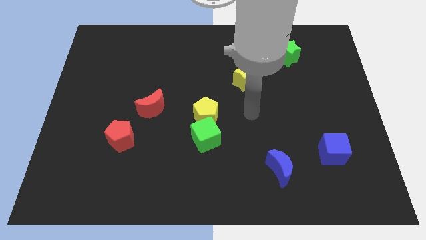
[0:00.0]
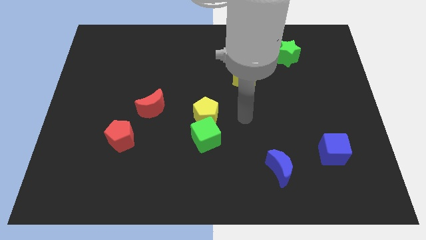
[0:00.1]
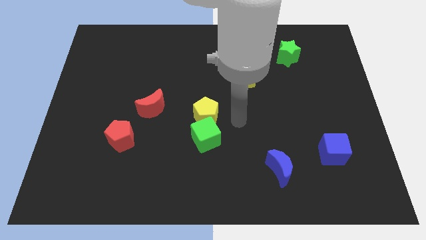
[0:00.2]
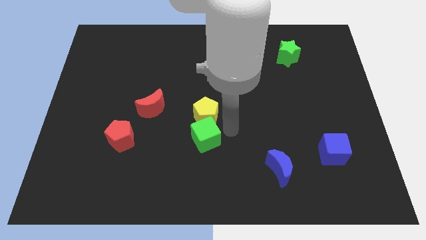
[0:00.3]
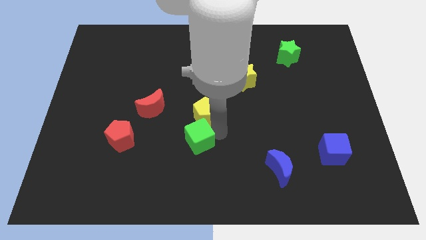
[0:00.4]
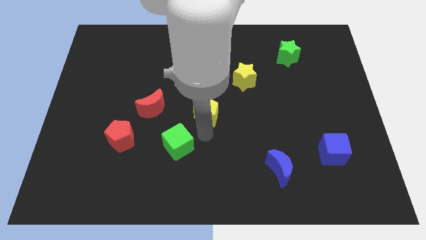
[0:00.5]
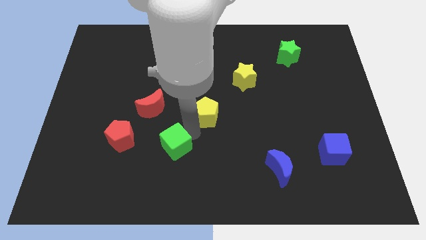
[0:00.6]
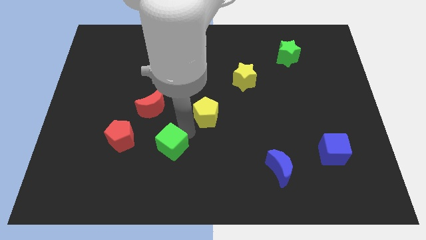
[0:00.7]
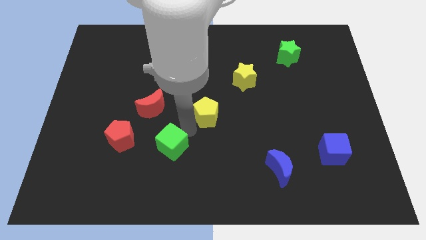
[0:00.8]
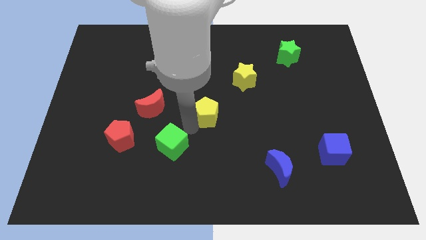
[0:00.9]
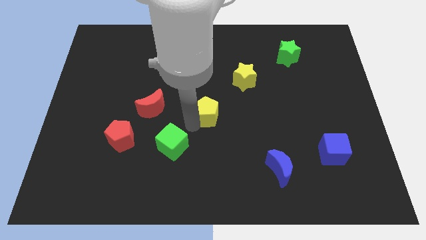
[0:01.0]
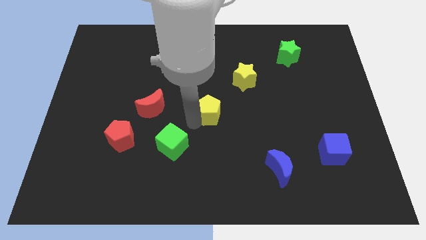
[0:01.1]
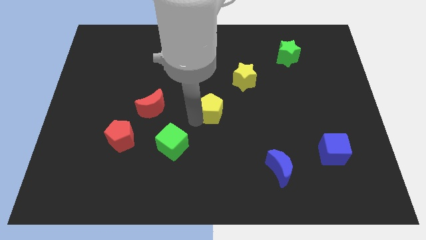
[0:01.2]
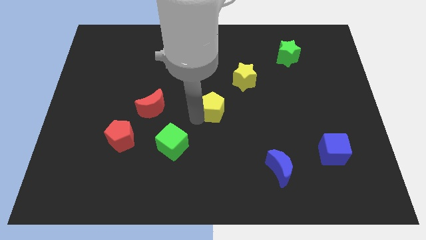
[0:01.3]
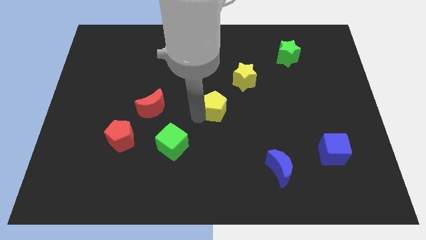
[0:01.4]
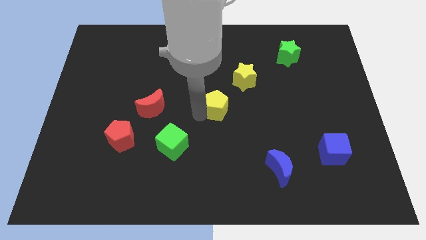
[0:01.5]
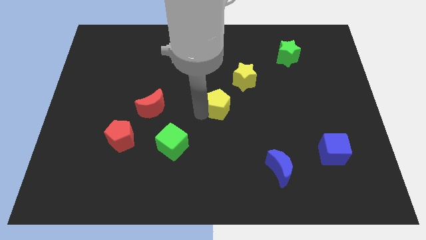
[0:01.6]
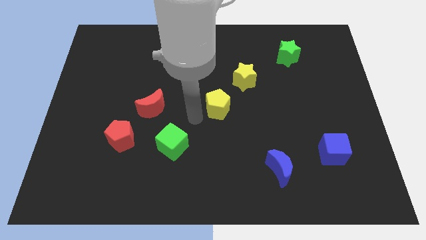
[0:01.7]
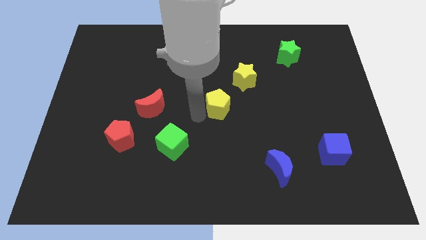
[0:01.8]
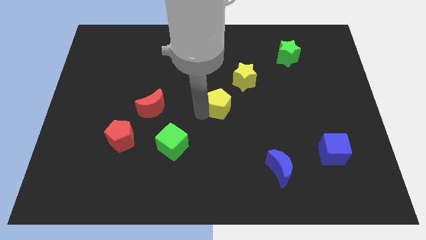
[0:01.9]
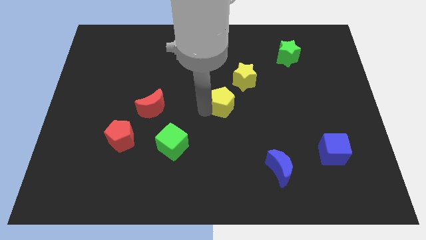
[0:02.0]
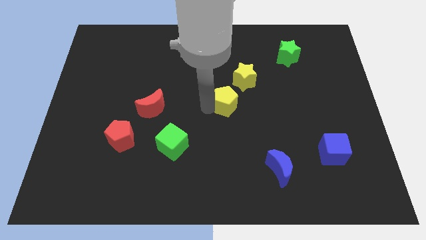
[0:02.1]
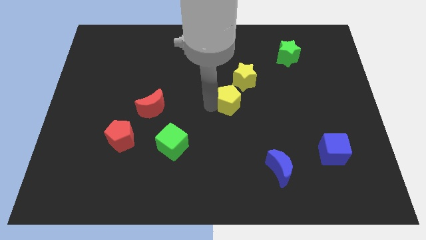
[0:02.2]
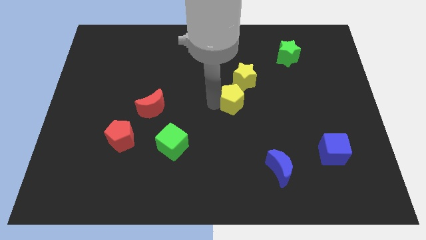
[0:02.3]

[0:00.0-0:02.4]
push the yellow pentagon up and to the right diagonally a little

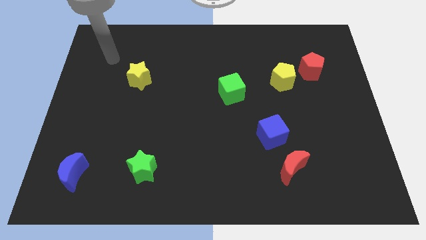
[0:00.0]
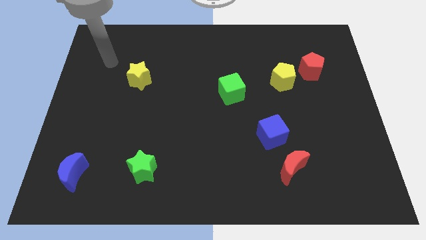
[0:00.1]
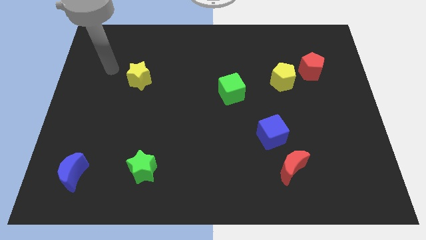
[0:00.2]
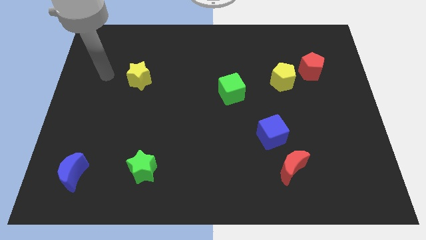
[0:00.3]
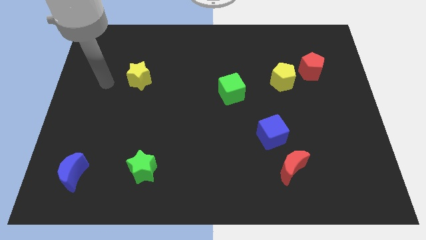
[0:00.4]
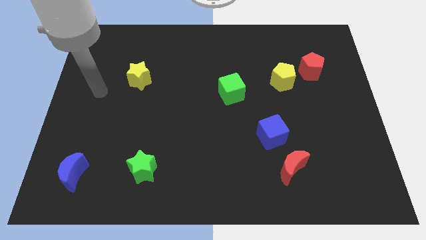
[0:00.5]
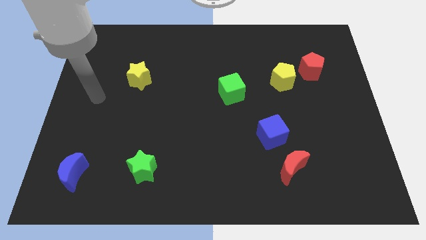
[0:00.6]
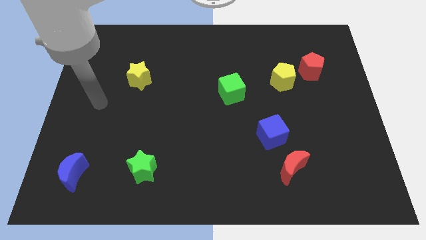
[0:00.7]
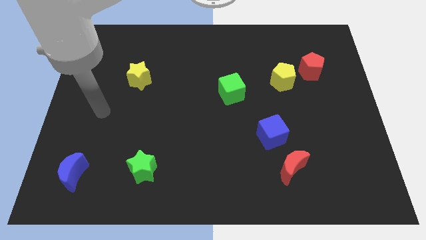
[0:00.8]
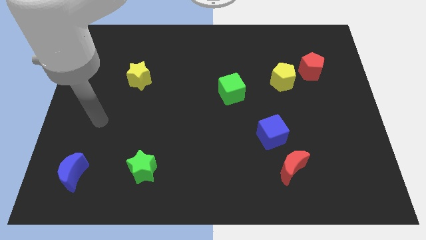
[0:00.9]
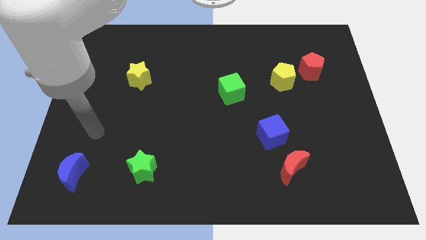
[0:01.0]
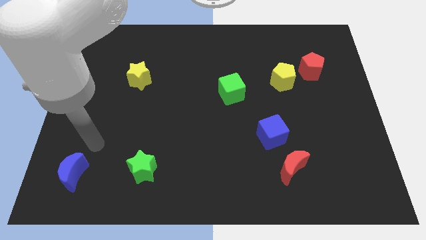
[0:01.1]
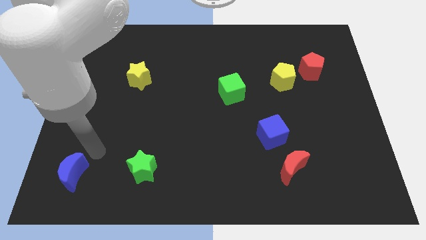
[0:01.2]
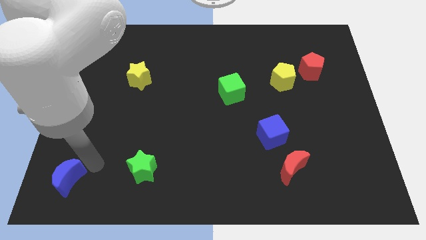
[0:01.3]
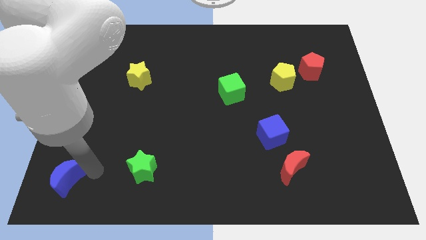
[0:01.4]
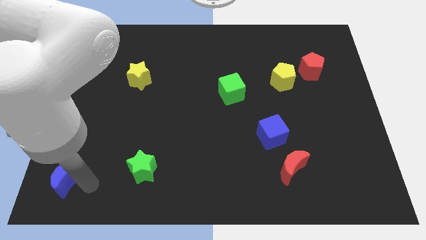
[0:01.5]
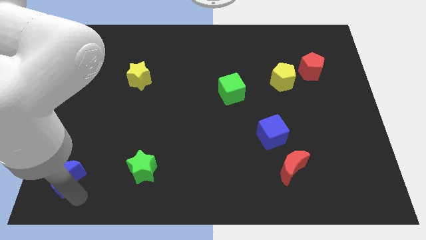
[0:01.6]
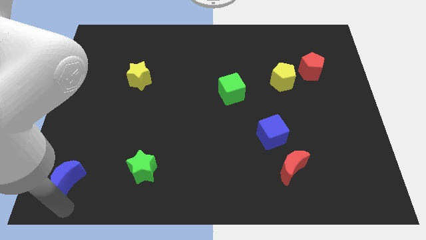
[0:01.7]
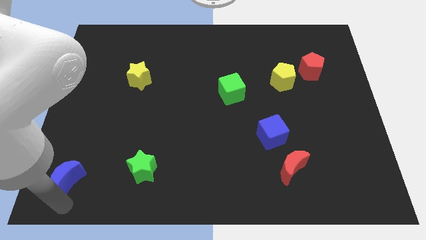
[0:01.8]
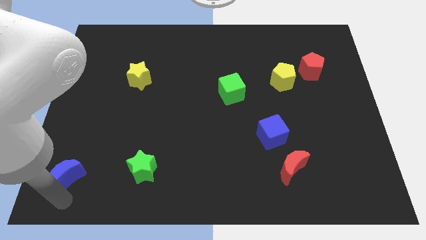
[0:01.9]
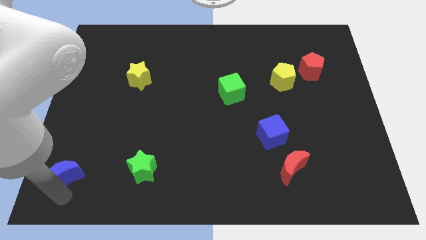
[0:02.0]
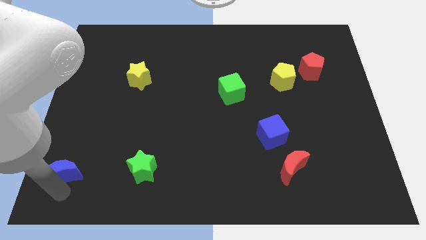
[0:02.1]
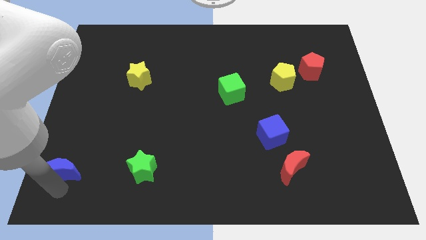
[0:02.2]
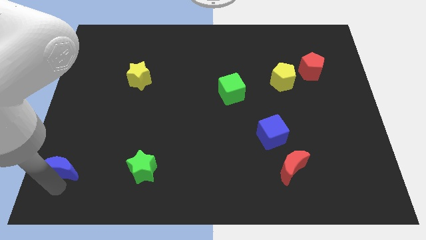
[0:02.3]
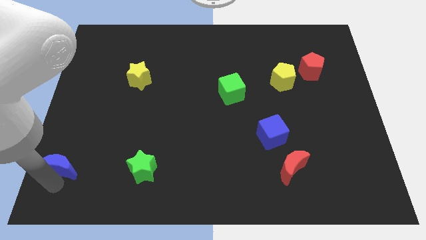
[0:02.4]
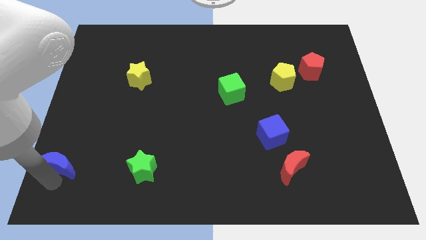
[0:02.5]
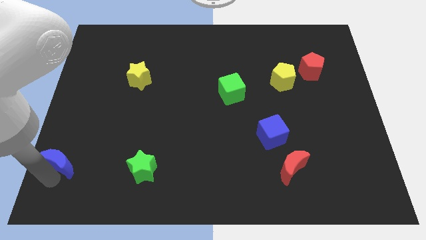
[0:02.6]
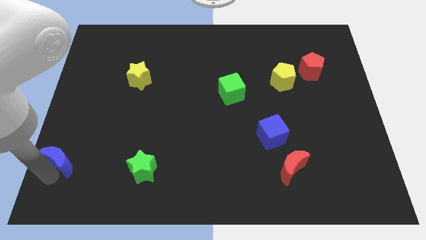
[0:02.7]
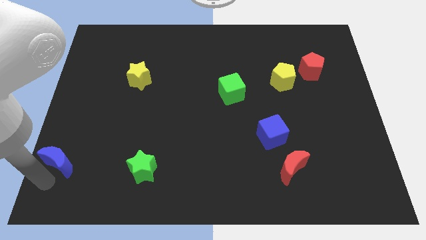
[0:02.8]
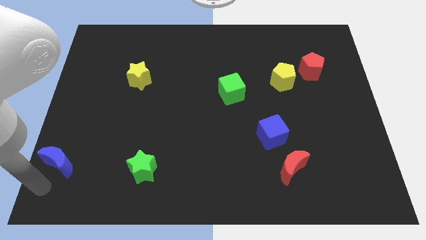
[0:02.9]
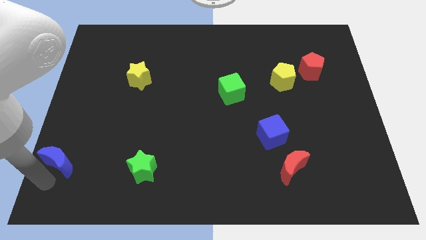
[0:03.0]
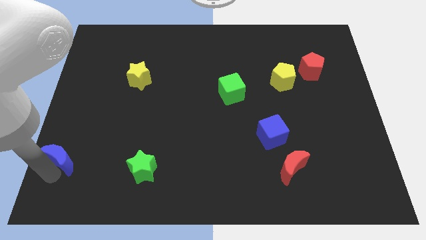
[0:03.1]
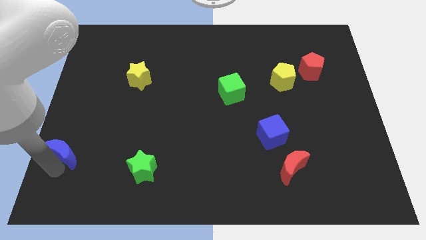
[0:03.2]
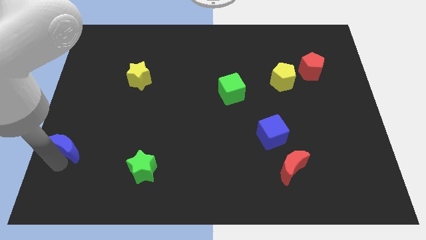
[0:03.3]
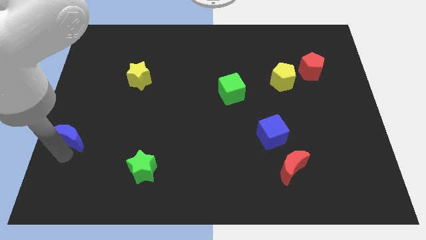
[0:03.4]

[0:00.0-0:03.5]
slide the blue moon a bit up

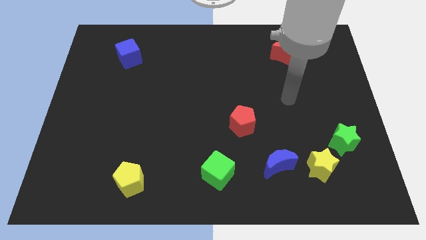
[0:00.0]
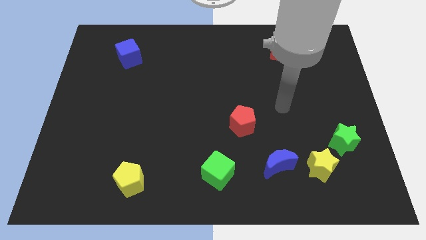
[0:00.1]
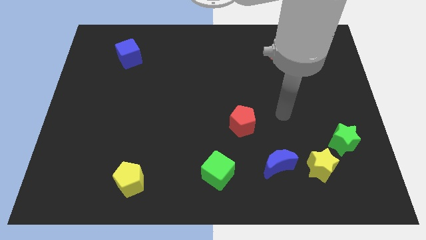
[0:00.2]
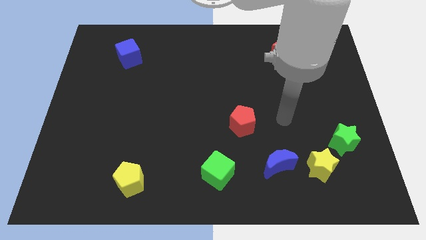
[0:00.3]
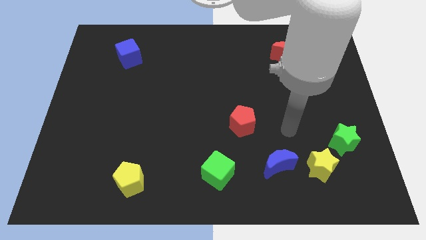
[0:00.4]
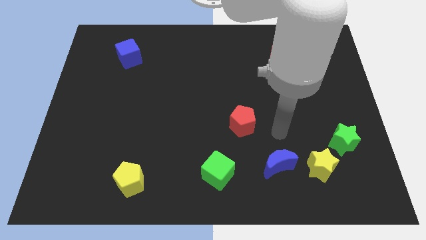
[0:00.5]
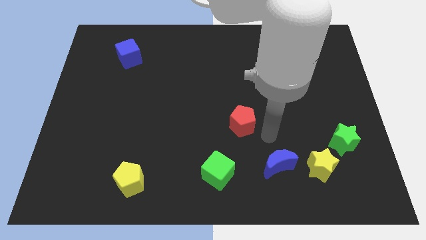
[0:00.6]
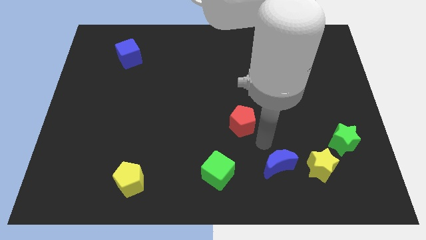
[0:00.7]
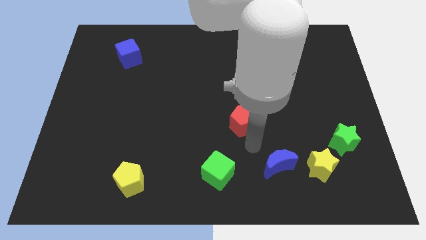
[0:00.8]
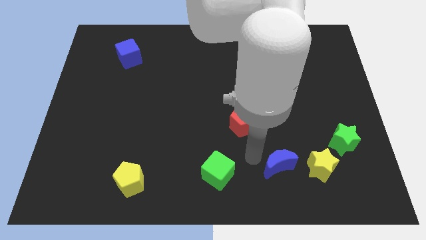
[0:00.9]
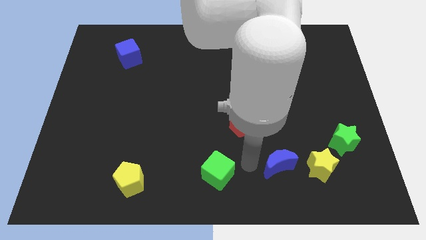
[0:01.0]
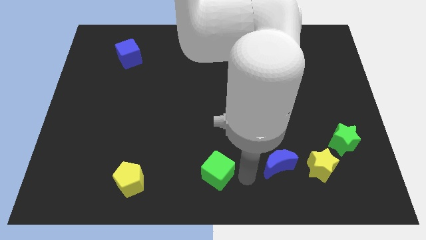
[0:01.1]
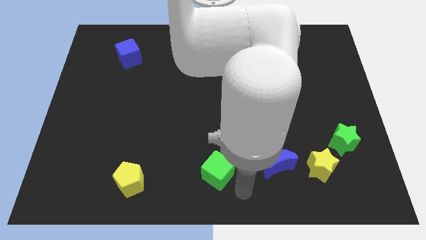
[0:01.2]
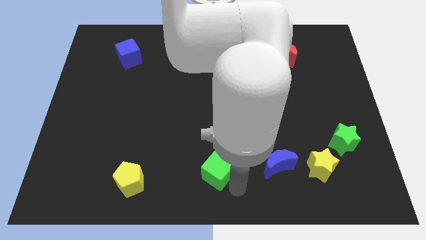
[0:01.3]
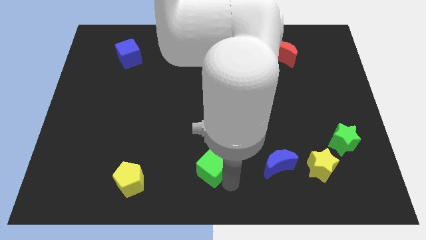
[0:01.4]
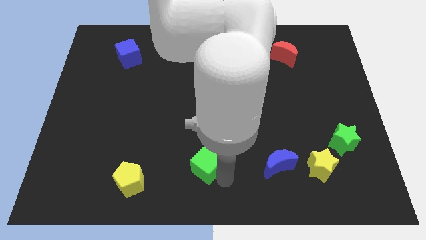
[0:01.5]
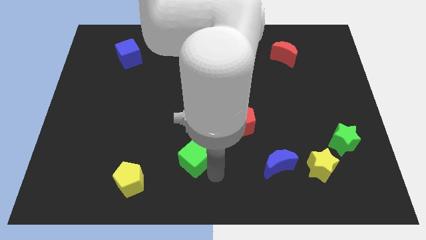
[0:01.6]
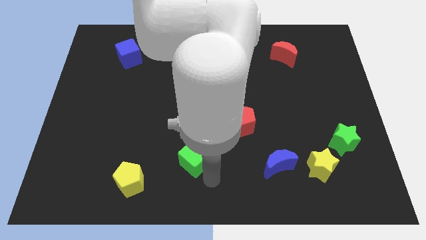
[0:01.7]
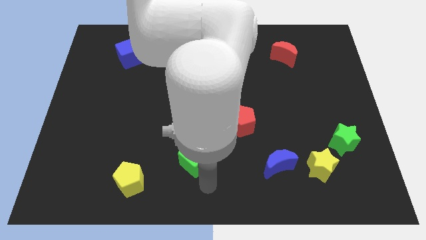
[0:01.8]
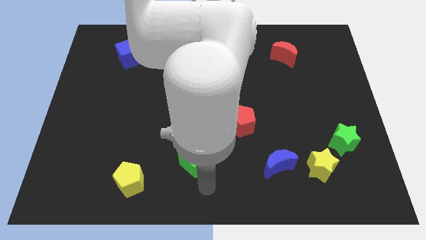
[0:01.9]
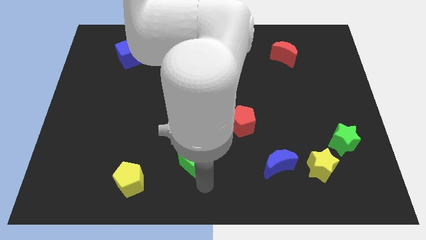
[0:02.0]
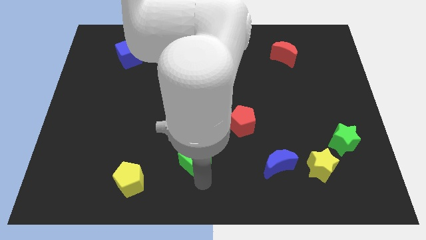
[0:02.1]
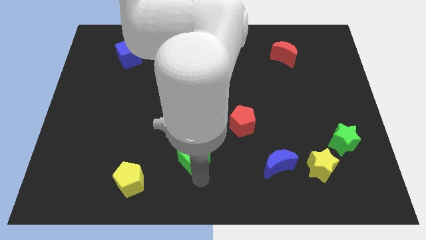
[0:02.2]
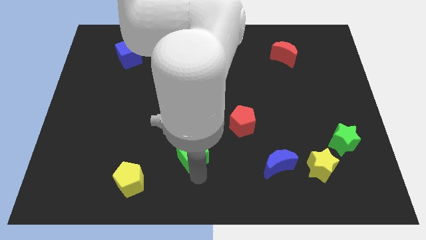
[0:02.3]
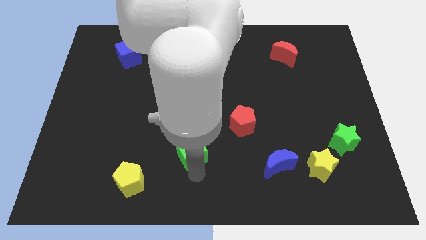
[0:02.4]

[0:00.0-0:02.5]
slightly move the green cube up and then to the left
